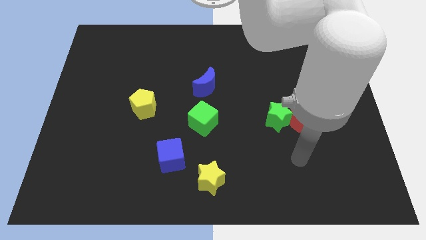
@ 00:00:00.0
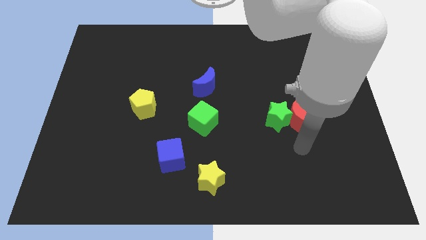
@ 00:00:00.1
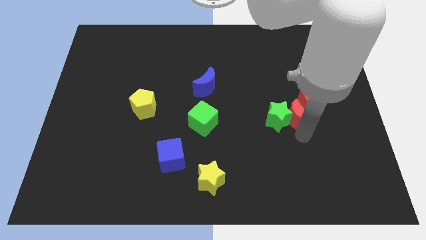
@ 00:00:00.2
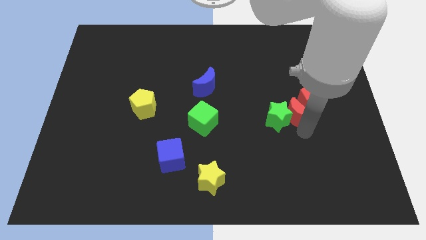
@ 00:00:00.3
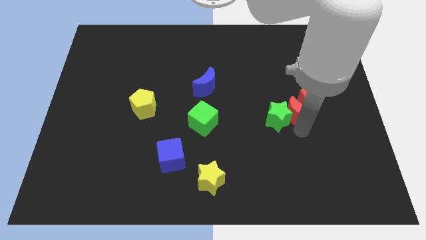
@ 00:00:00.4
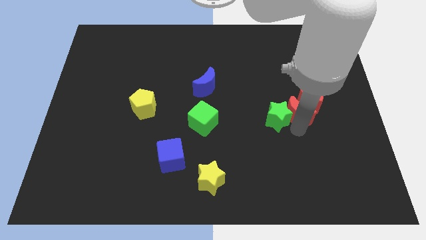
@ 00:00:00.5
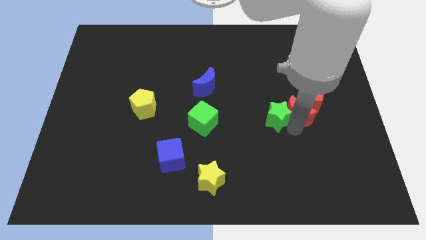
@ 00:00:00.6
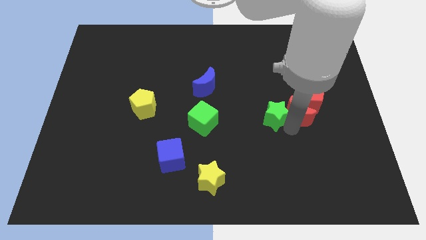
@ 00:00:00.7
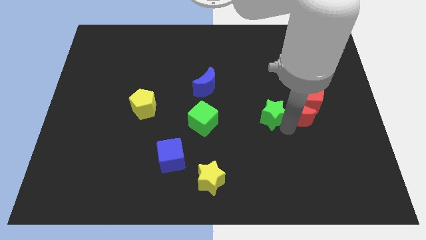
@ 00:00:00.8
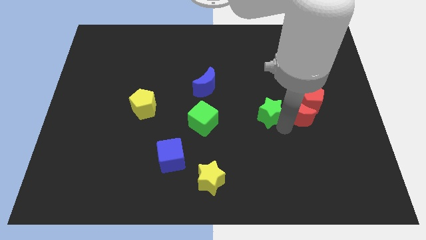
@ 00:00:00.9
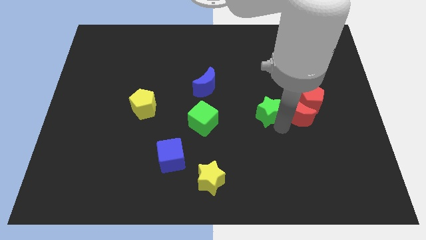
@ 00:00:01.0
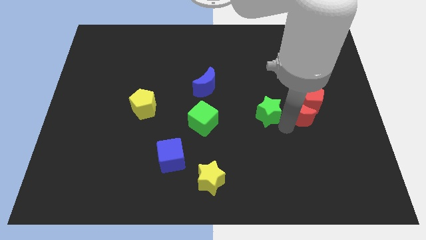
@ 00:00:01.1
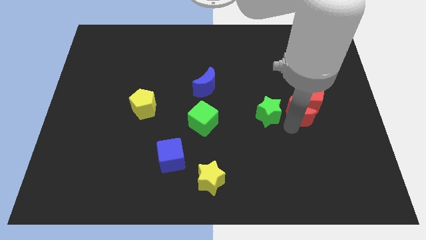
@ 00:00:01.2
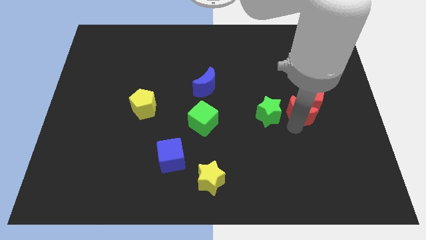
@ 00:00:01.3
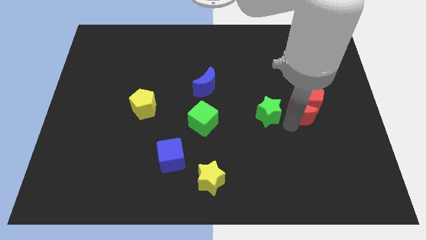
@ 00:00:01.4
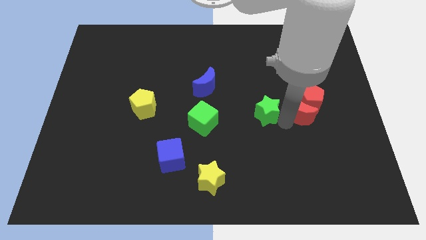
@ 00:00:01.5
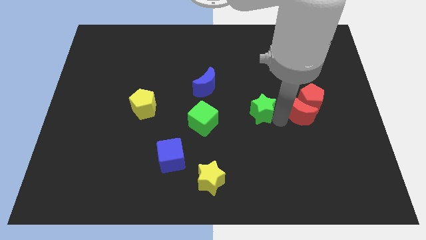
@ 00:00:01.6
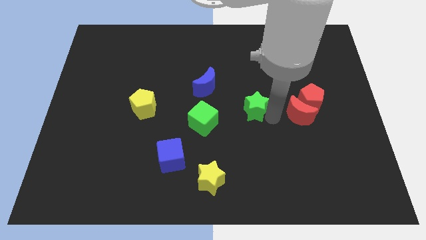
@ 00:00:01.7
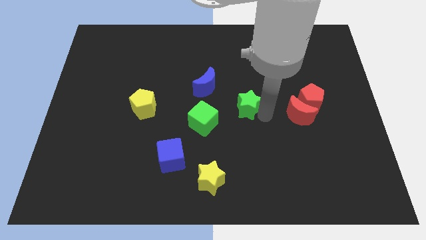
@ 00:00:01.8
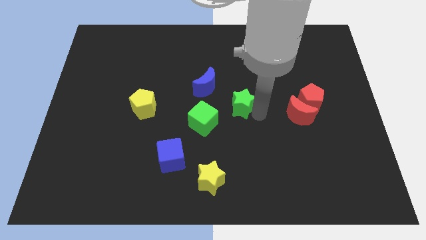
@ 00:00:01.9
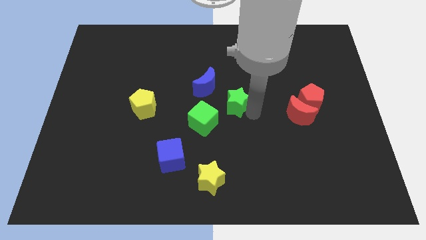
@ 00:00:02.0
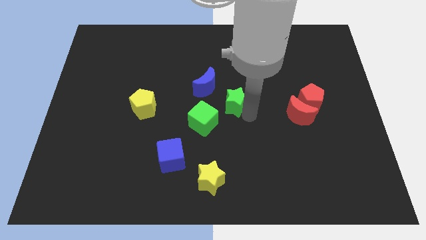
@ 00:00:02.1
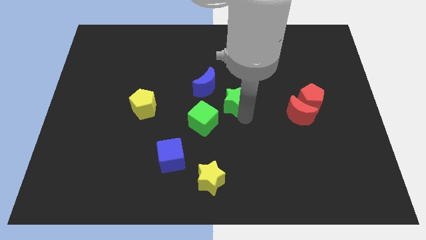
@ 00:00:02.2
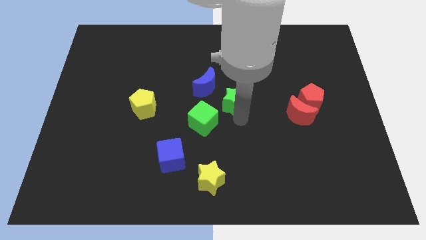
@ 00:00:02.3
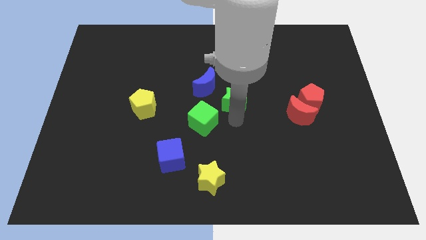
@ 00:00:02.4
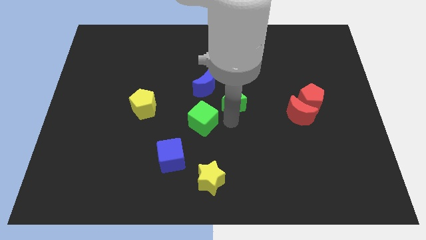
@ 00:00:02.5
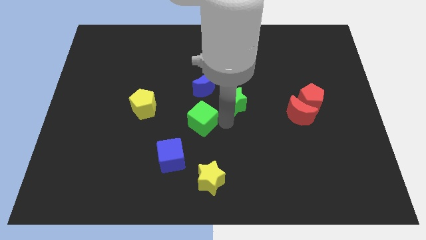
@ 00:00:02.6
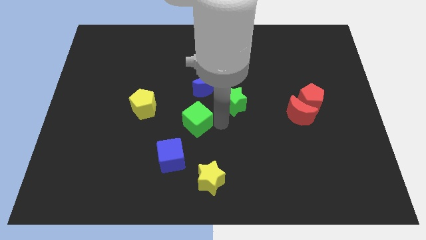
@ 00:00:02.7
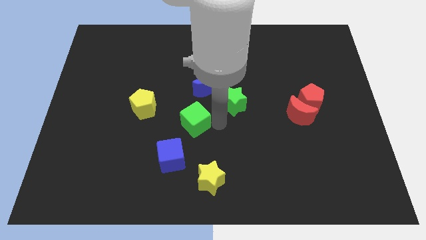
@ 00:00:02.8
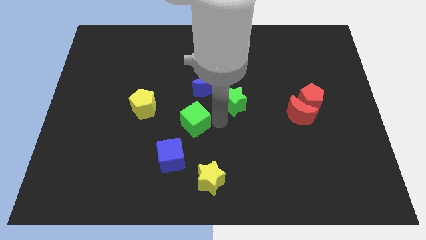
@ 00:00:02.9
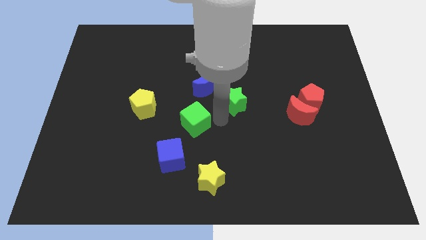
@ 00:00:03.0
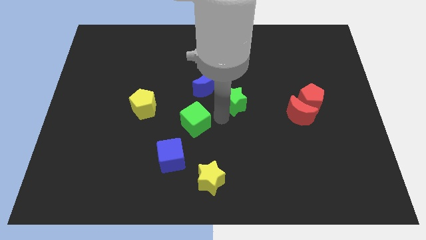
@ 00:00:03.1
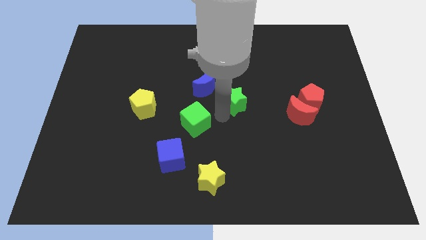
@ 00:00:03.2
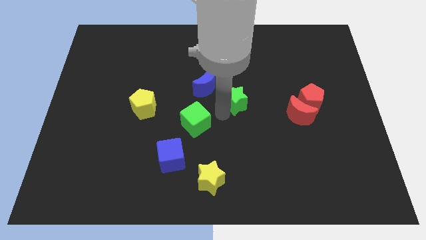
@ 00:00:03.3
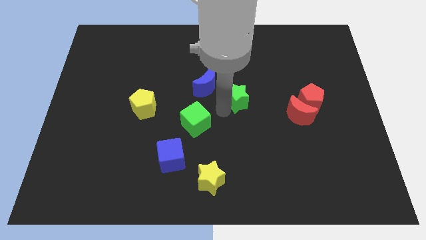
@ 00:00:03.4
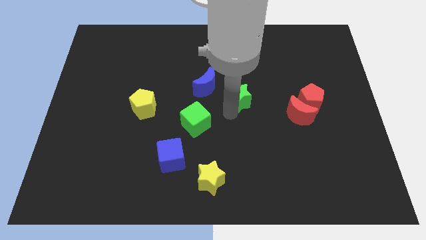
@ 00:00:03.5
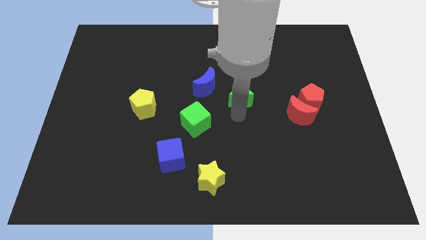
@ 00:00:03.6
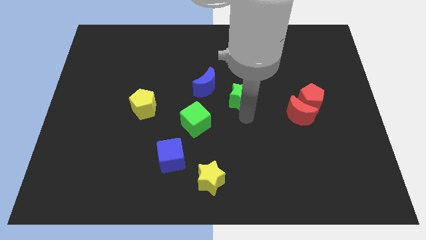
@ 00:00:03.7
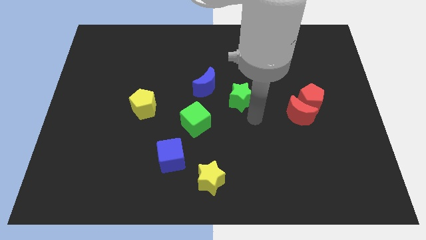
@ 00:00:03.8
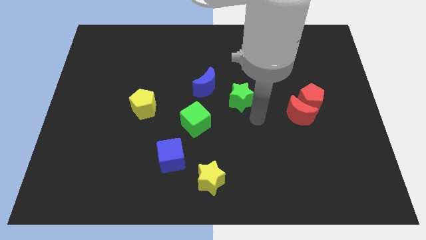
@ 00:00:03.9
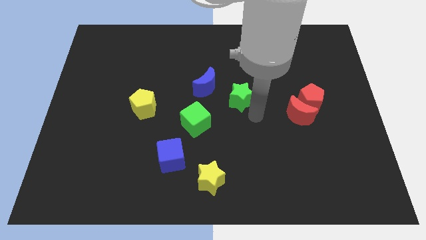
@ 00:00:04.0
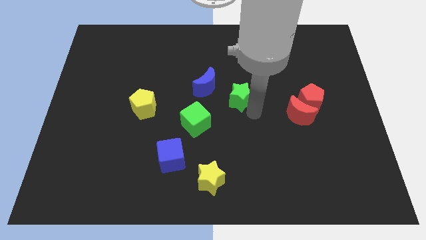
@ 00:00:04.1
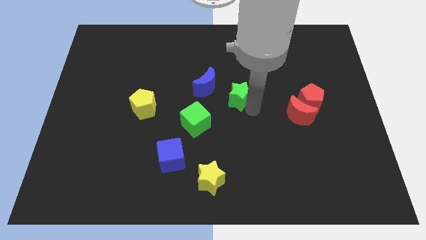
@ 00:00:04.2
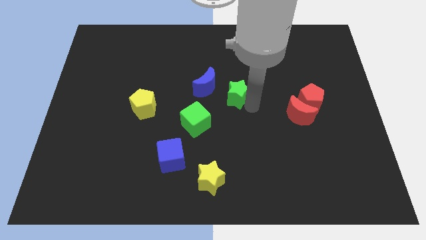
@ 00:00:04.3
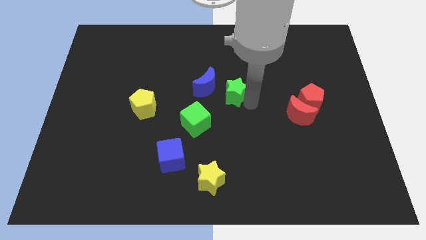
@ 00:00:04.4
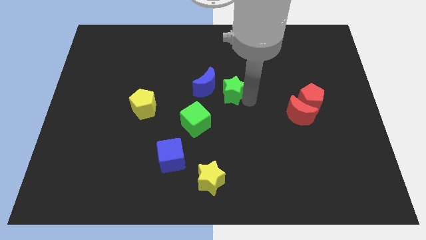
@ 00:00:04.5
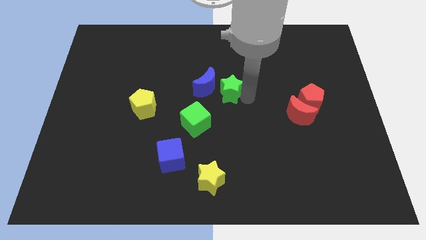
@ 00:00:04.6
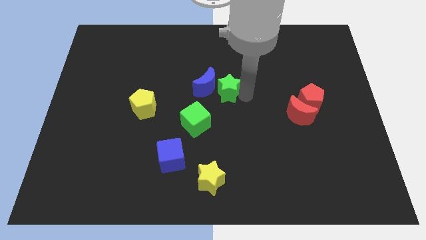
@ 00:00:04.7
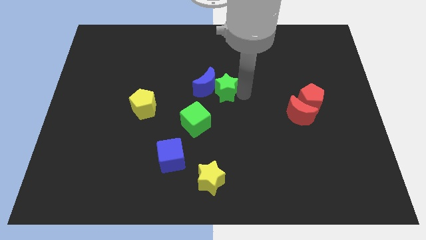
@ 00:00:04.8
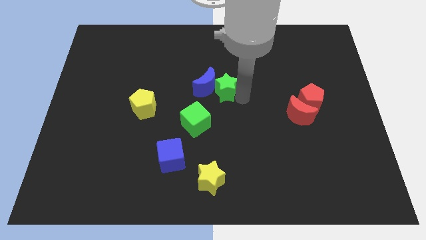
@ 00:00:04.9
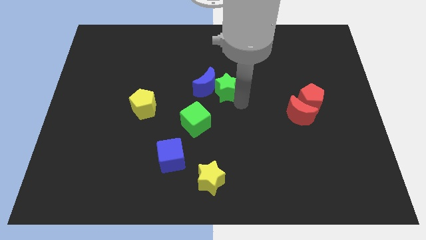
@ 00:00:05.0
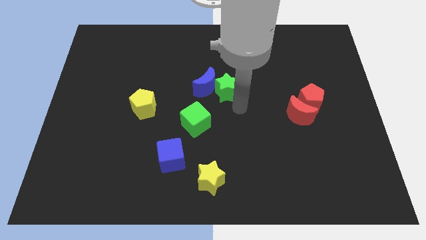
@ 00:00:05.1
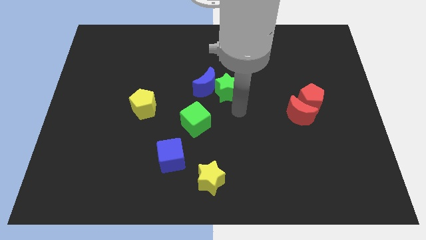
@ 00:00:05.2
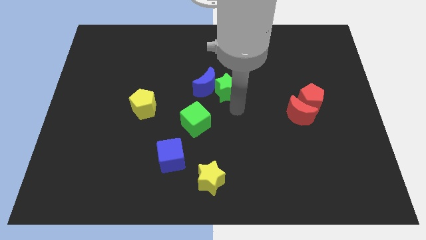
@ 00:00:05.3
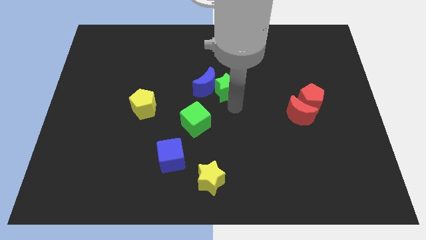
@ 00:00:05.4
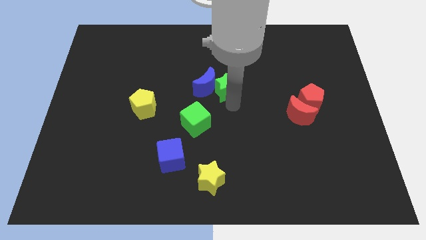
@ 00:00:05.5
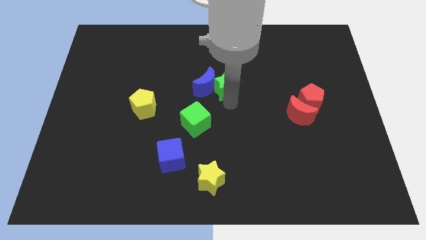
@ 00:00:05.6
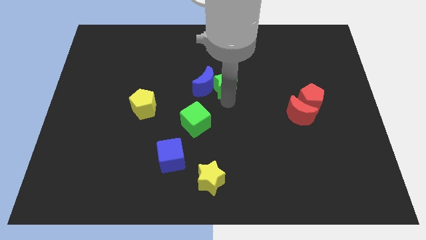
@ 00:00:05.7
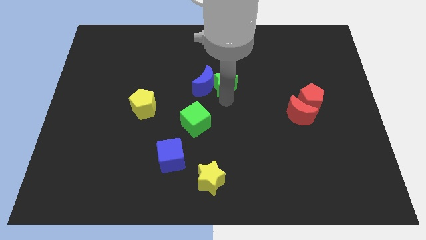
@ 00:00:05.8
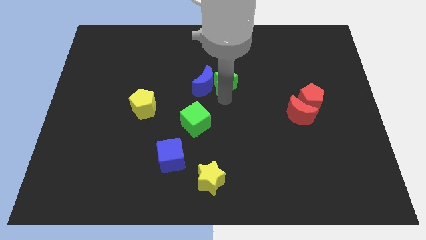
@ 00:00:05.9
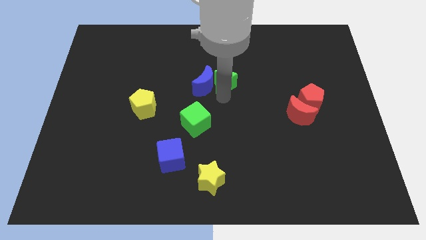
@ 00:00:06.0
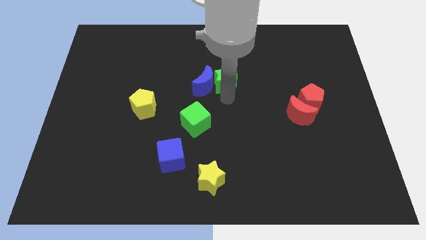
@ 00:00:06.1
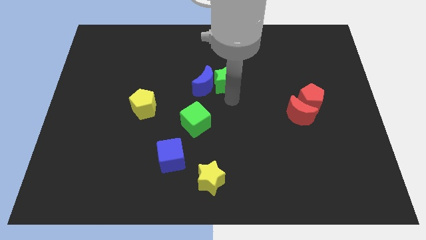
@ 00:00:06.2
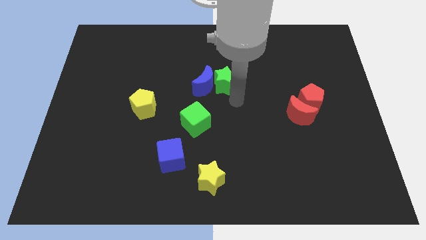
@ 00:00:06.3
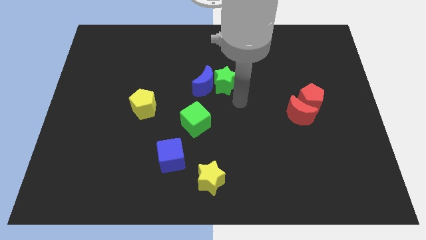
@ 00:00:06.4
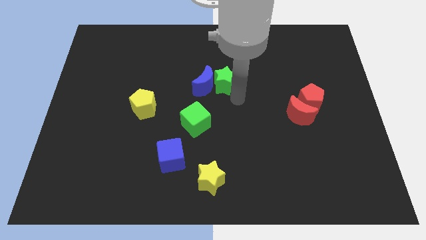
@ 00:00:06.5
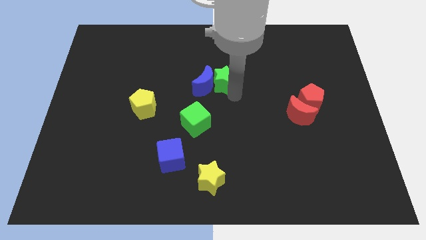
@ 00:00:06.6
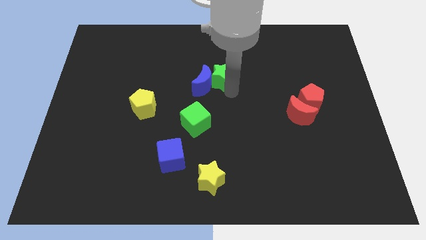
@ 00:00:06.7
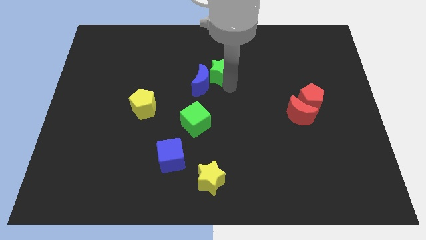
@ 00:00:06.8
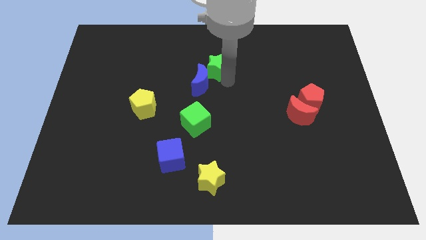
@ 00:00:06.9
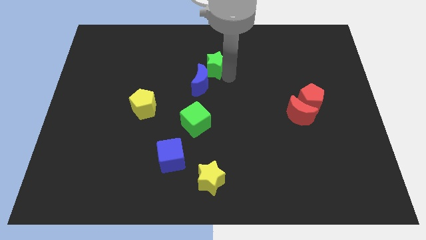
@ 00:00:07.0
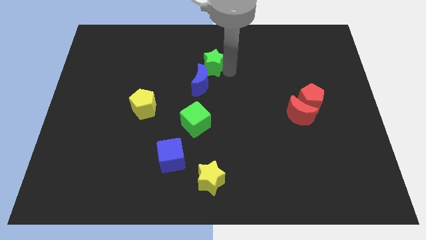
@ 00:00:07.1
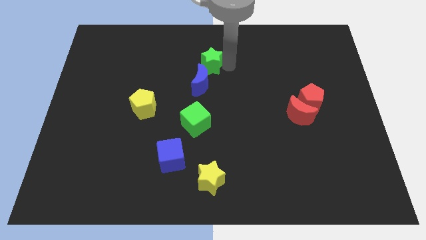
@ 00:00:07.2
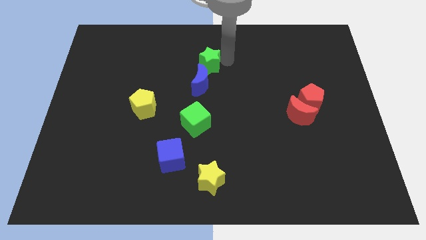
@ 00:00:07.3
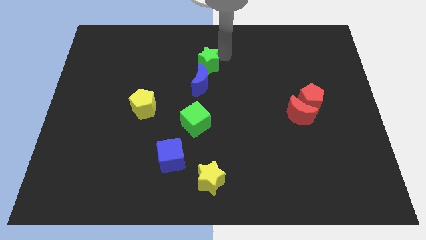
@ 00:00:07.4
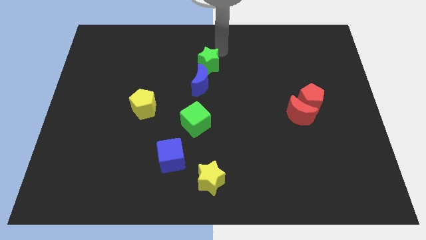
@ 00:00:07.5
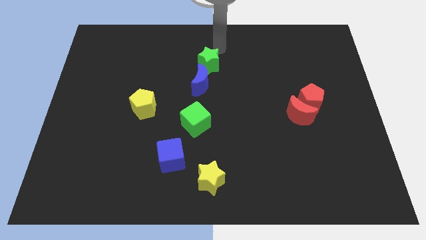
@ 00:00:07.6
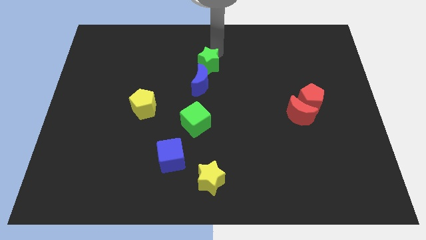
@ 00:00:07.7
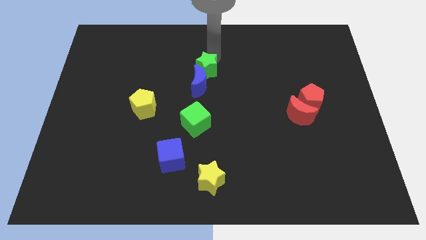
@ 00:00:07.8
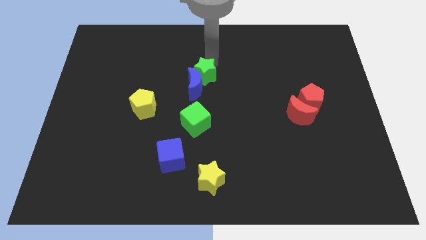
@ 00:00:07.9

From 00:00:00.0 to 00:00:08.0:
push the green star to the top side of the green cube
